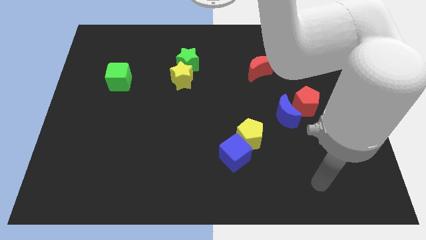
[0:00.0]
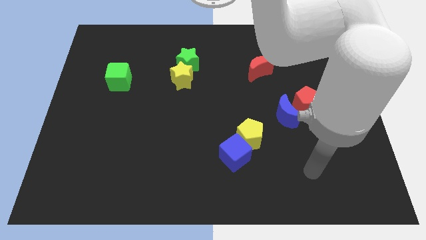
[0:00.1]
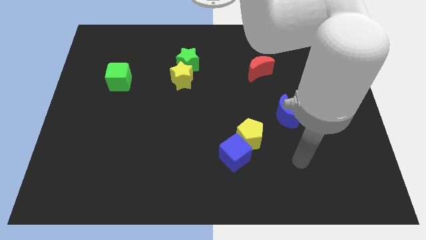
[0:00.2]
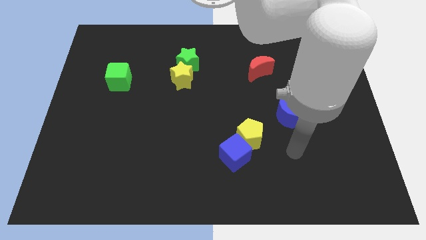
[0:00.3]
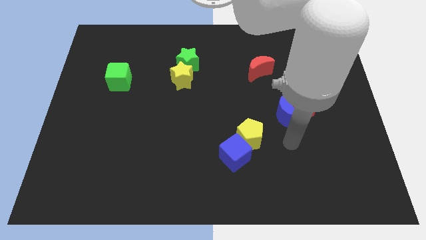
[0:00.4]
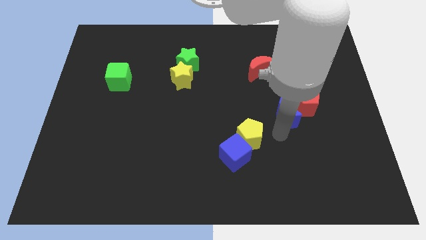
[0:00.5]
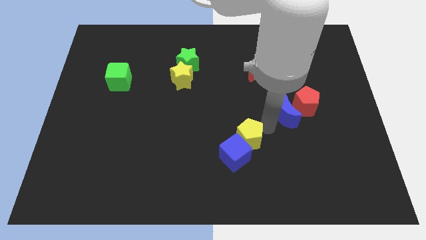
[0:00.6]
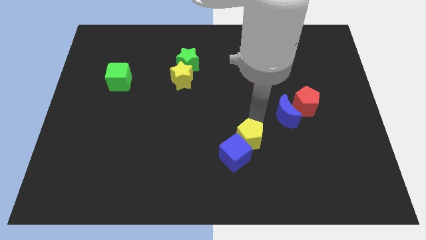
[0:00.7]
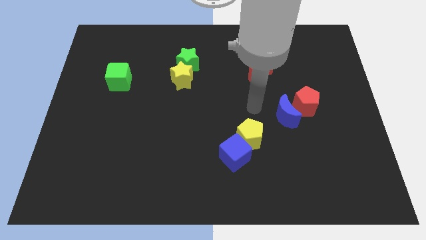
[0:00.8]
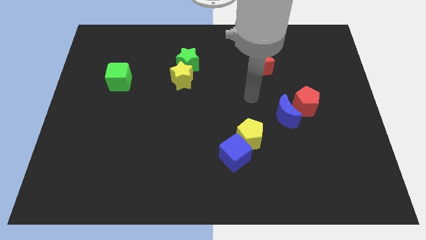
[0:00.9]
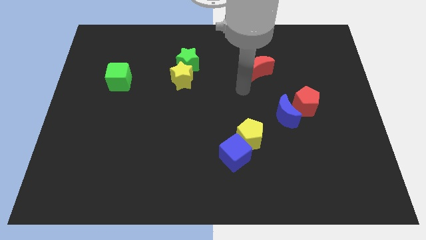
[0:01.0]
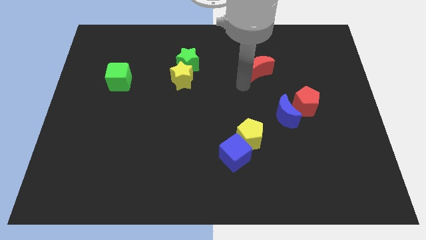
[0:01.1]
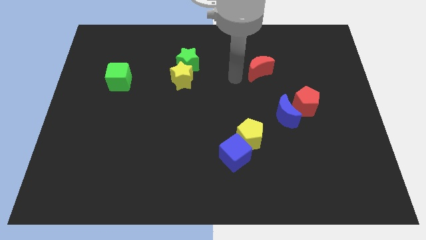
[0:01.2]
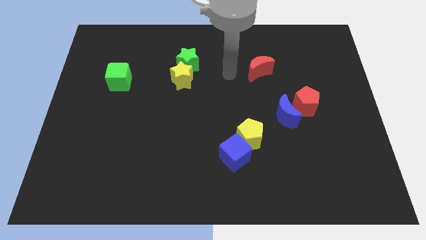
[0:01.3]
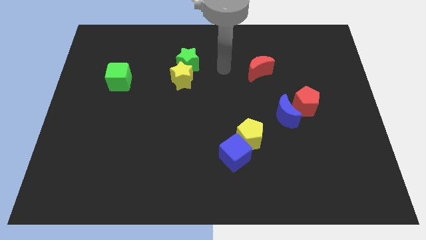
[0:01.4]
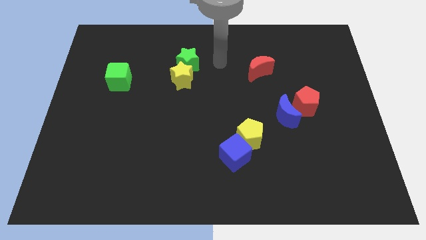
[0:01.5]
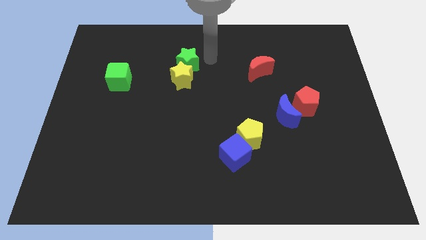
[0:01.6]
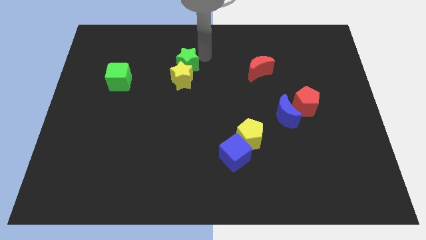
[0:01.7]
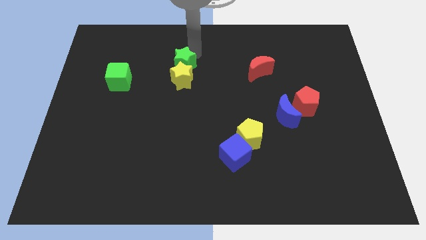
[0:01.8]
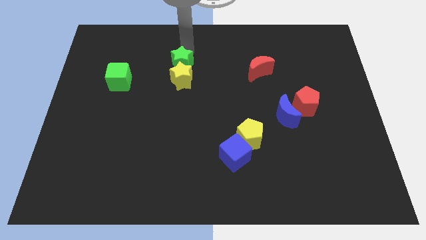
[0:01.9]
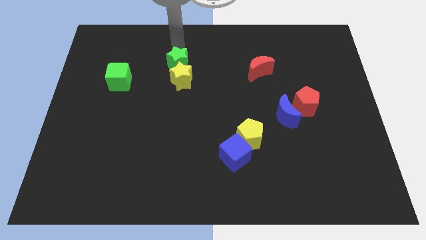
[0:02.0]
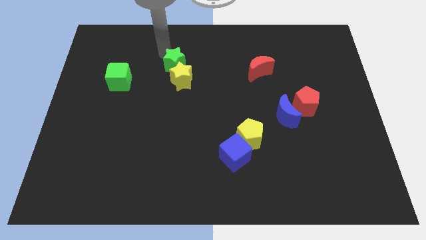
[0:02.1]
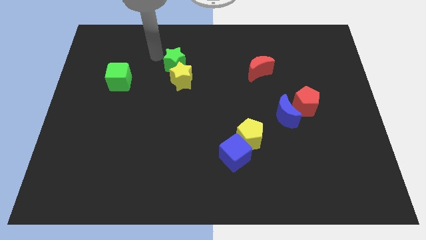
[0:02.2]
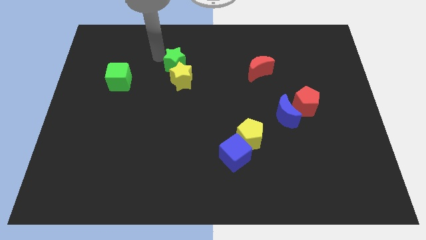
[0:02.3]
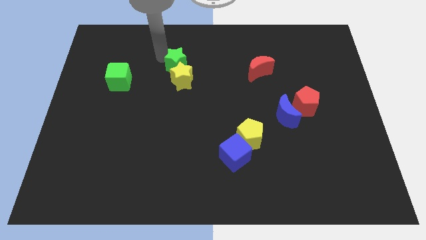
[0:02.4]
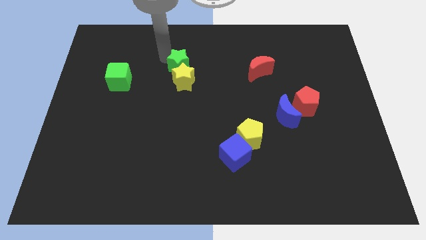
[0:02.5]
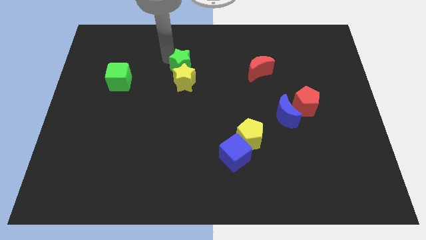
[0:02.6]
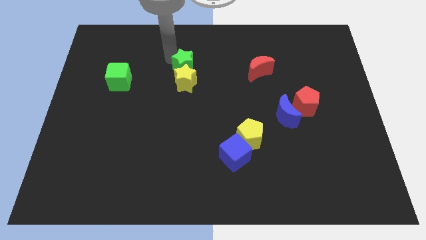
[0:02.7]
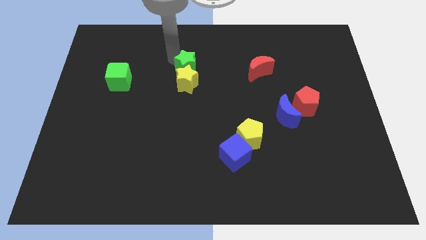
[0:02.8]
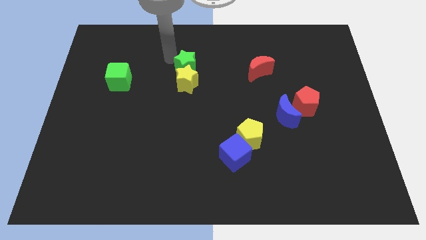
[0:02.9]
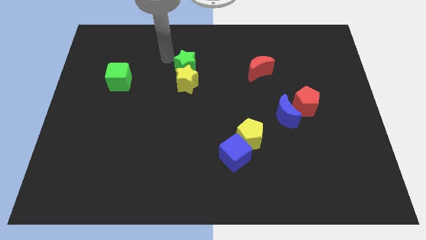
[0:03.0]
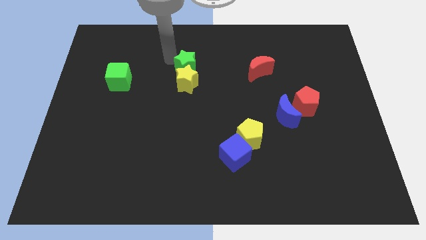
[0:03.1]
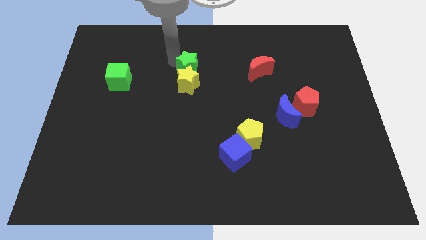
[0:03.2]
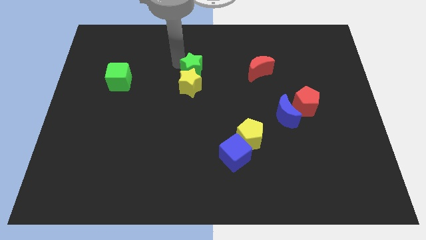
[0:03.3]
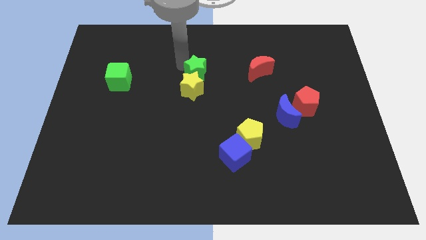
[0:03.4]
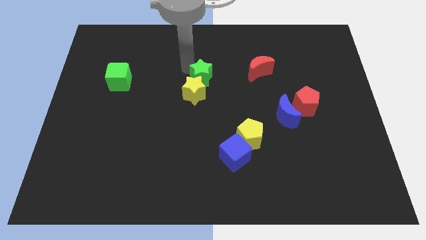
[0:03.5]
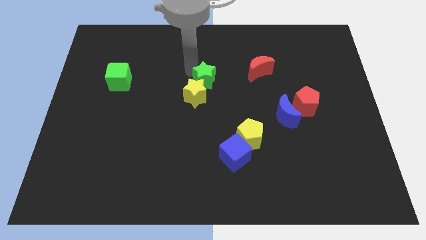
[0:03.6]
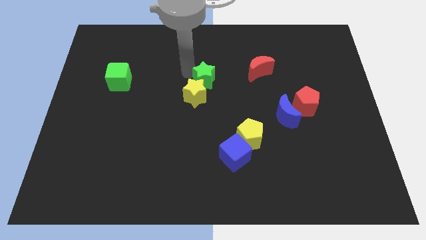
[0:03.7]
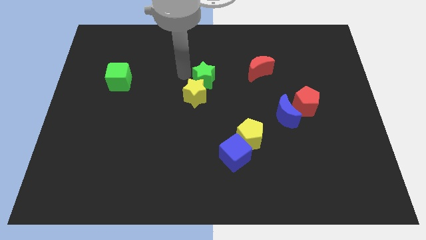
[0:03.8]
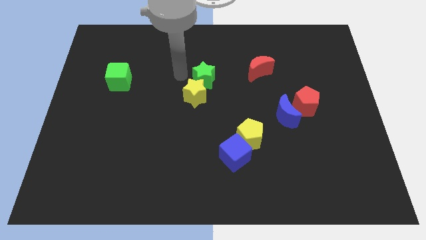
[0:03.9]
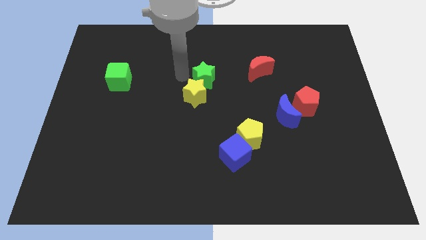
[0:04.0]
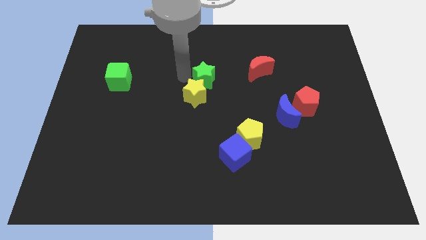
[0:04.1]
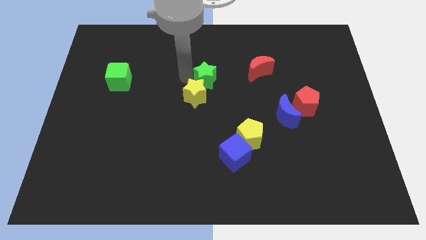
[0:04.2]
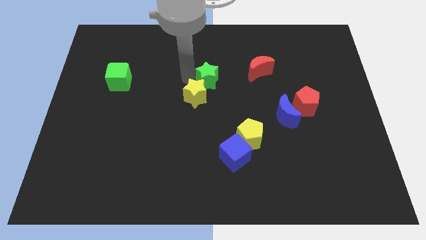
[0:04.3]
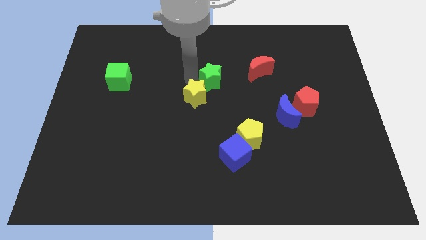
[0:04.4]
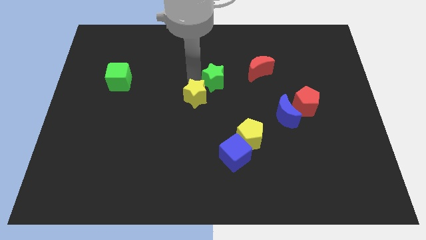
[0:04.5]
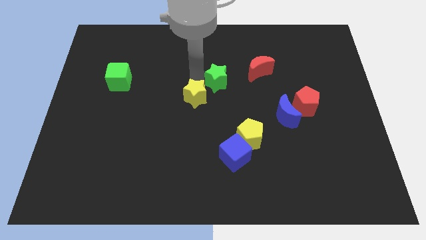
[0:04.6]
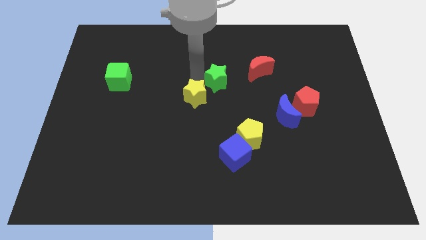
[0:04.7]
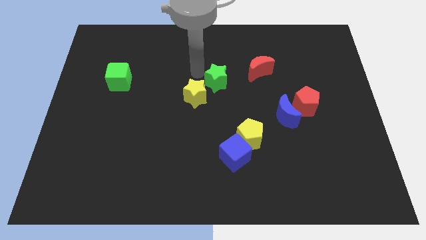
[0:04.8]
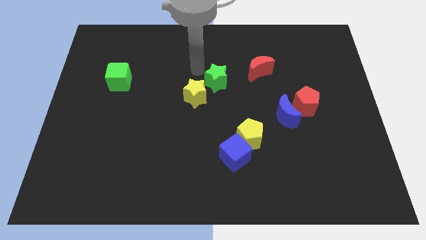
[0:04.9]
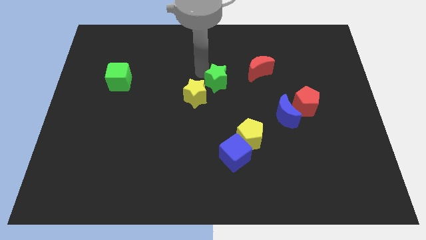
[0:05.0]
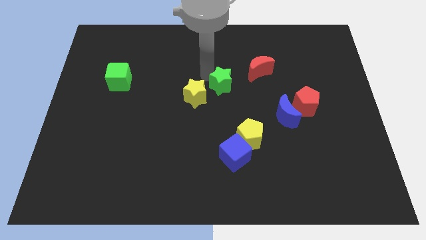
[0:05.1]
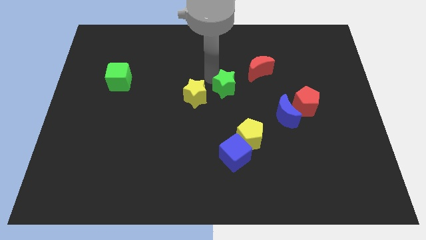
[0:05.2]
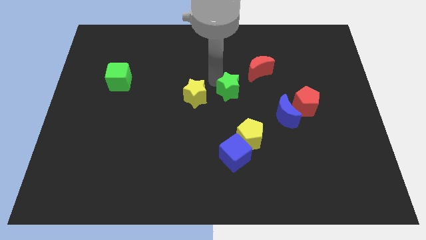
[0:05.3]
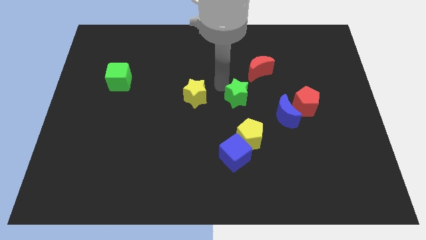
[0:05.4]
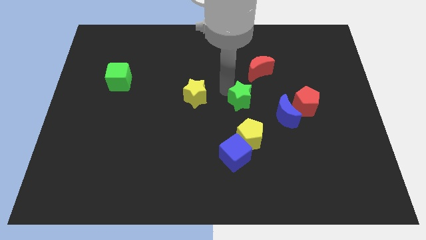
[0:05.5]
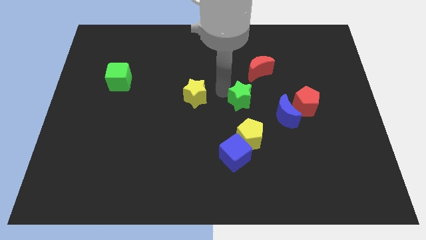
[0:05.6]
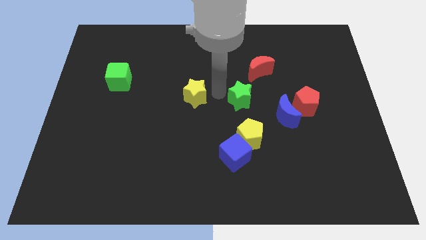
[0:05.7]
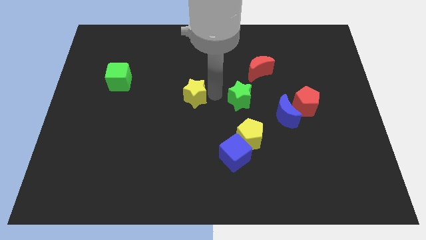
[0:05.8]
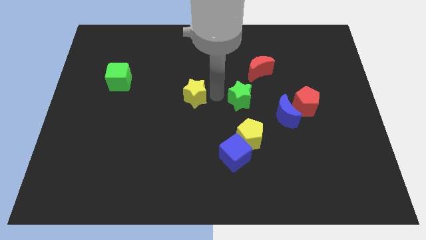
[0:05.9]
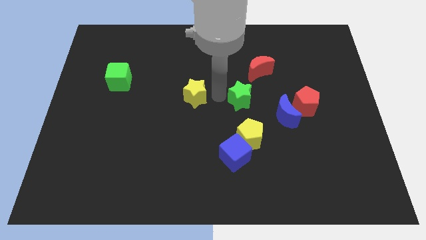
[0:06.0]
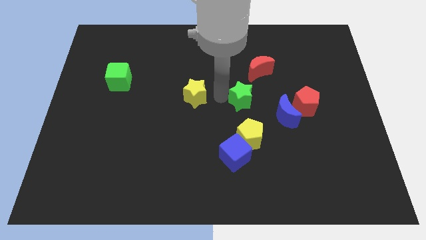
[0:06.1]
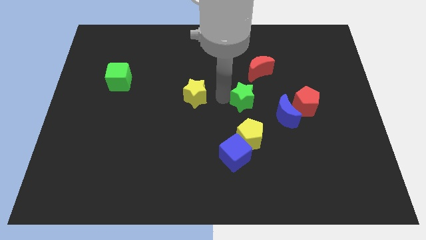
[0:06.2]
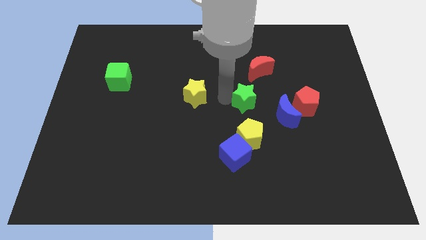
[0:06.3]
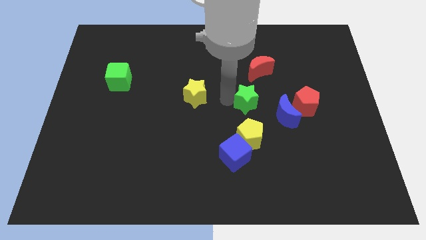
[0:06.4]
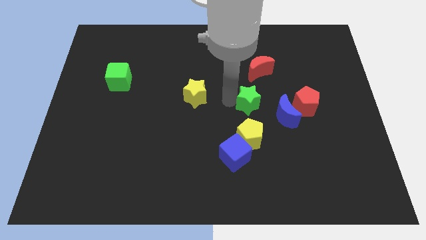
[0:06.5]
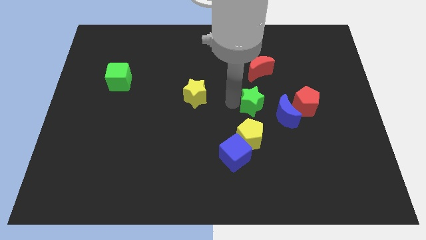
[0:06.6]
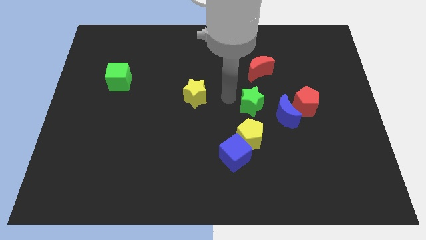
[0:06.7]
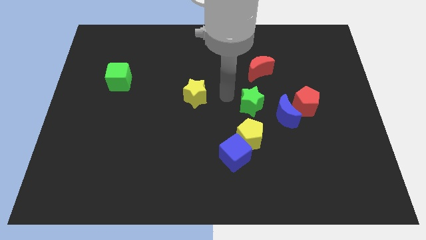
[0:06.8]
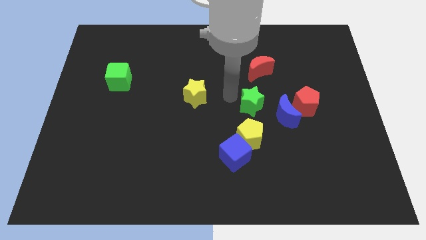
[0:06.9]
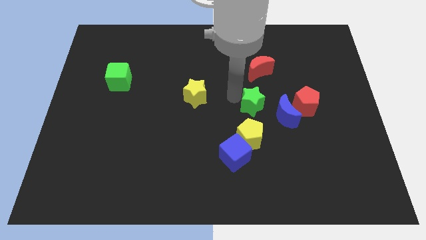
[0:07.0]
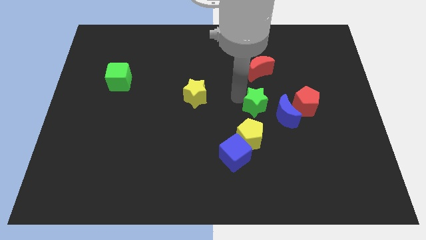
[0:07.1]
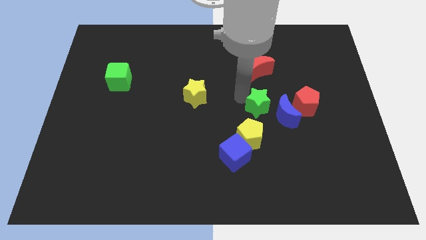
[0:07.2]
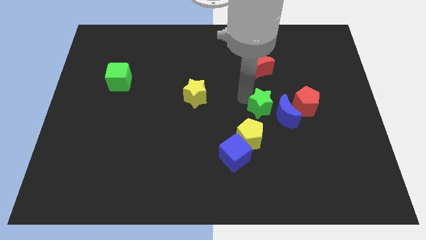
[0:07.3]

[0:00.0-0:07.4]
put the green star towards the blue moon
